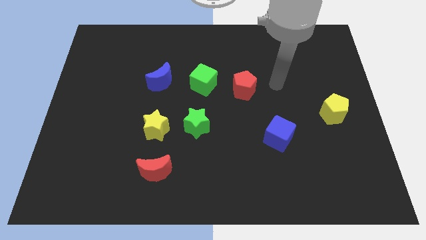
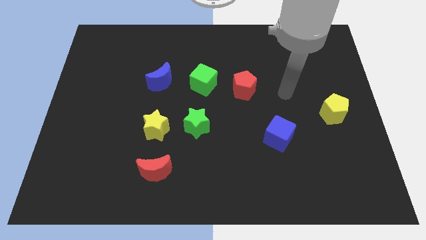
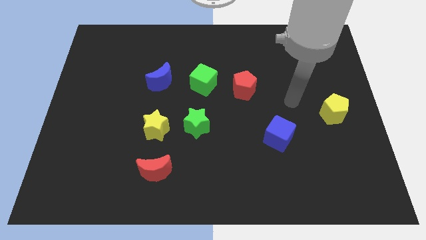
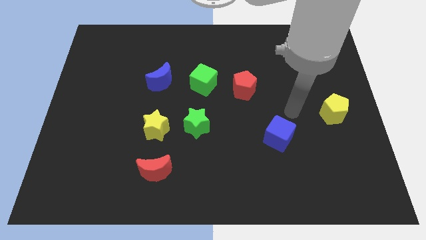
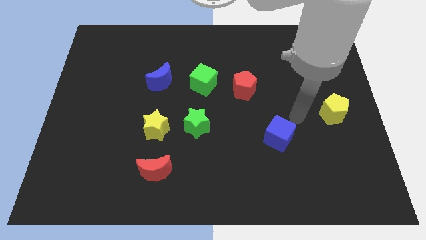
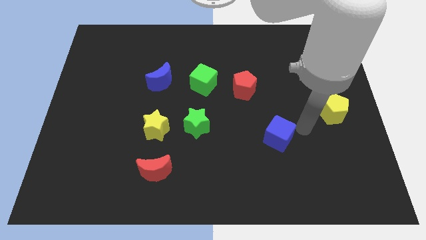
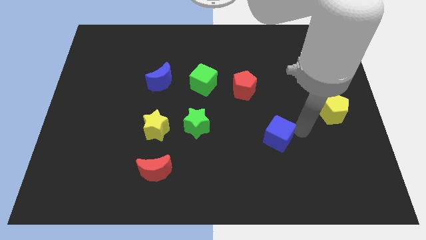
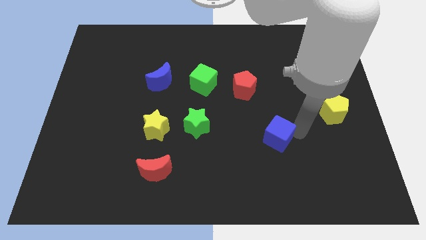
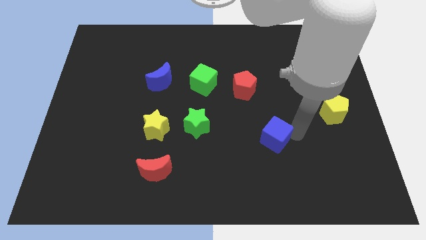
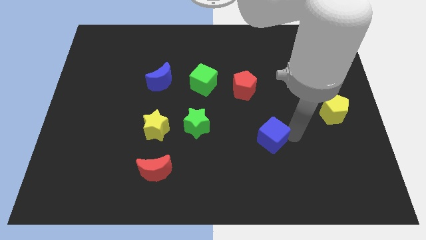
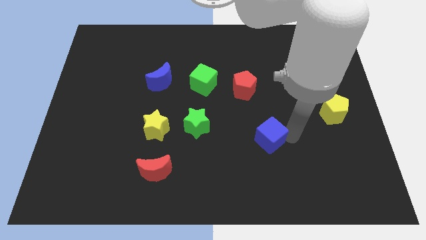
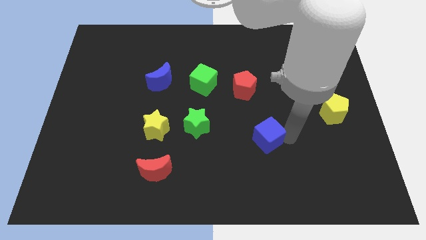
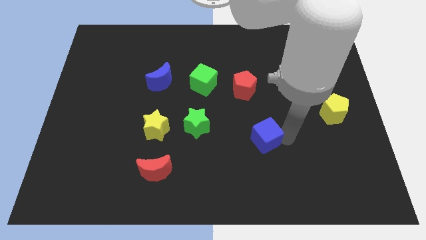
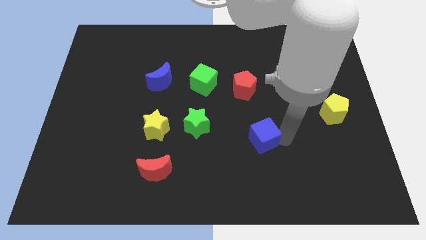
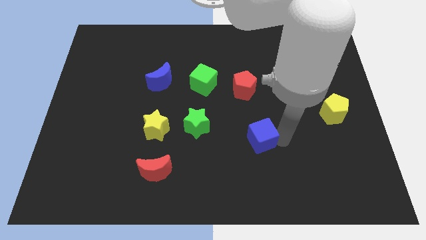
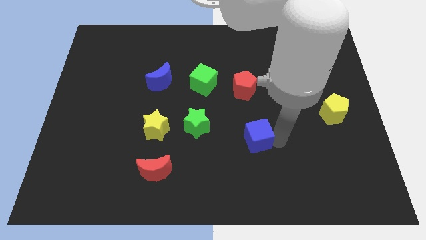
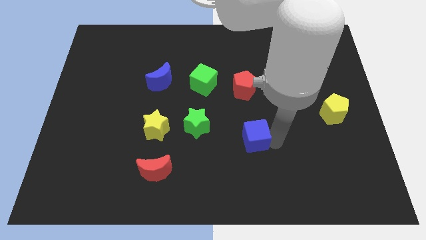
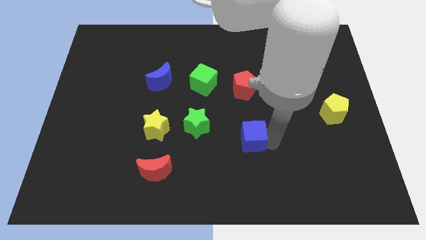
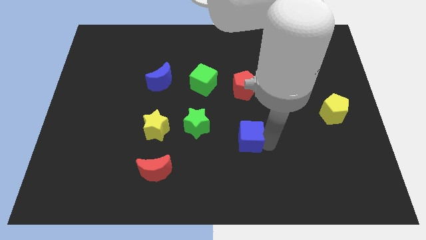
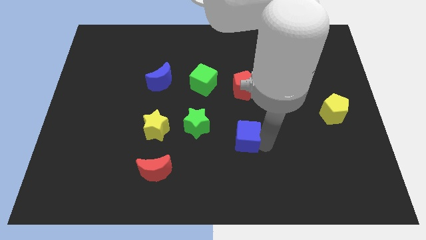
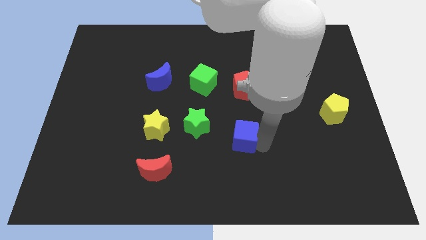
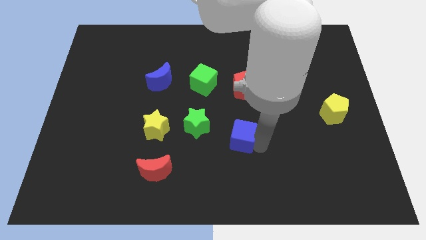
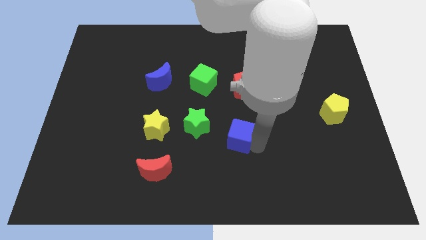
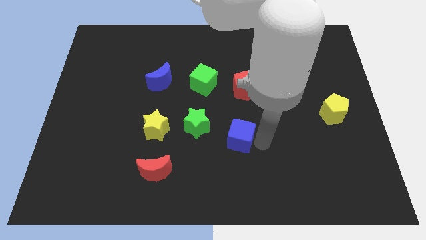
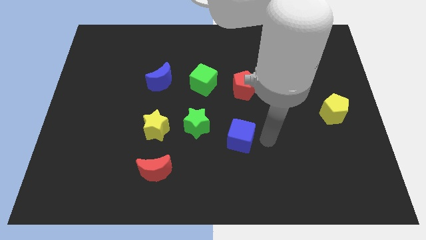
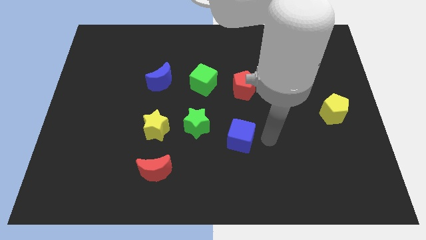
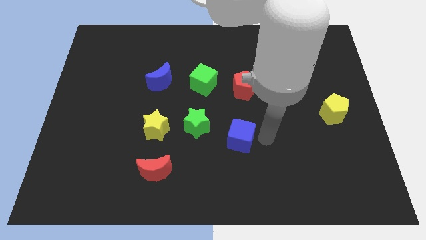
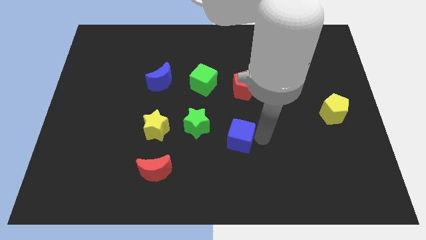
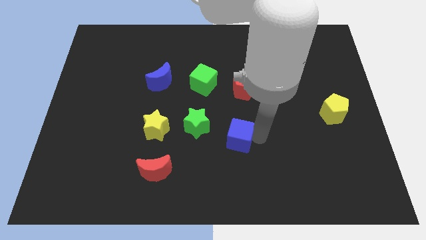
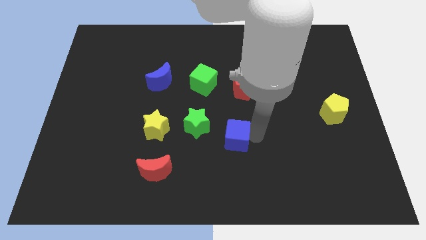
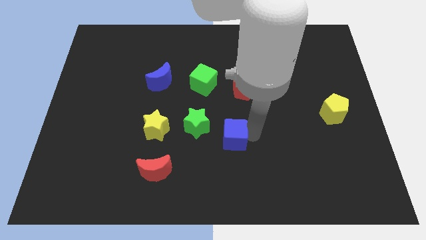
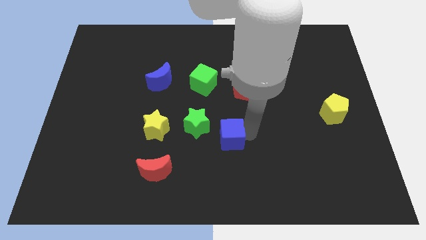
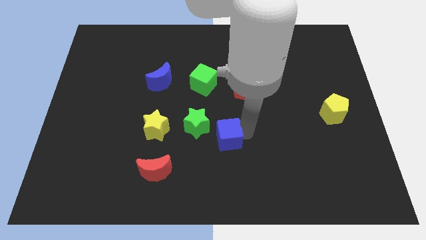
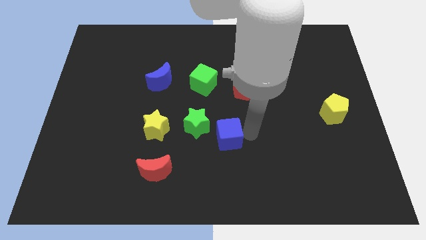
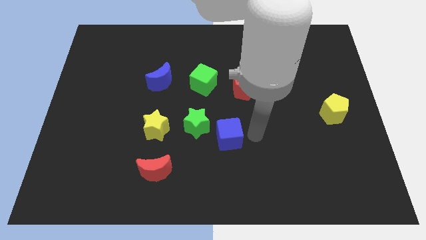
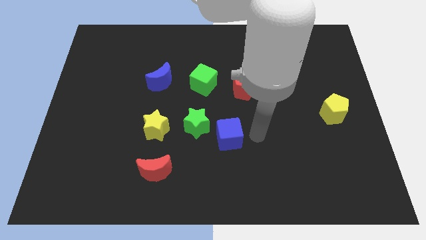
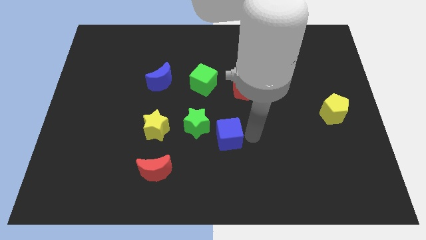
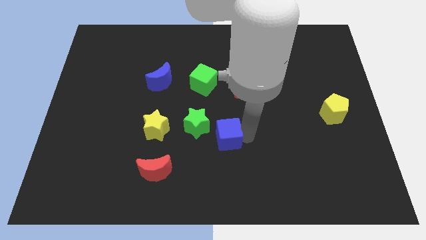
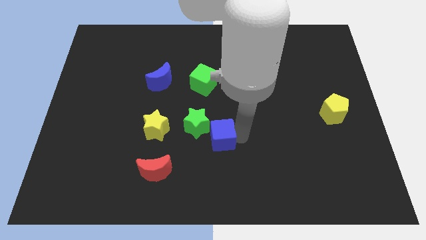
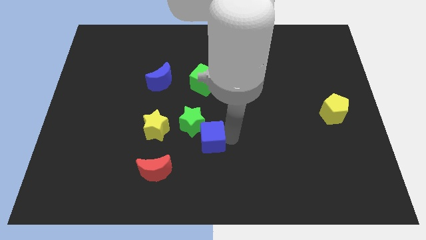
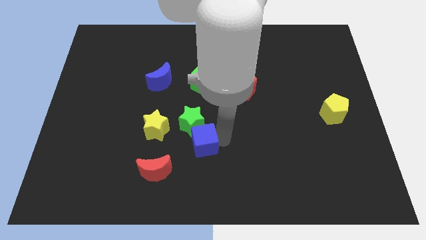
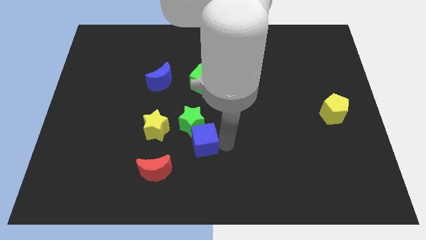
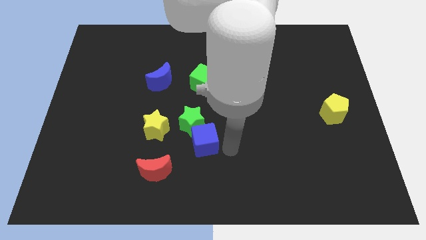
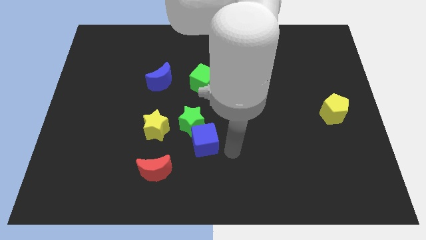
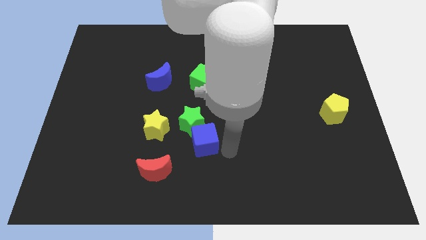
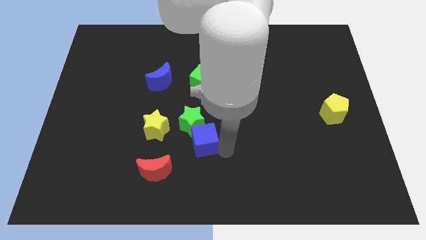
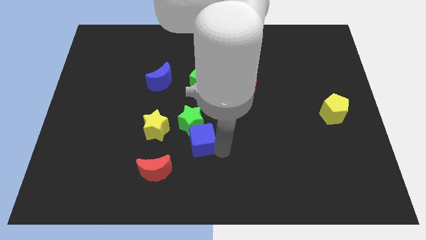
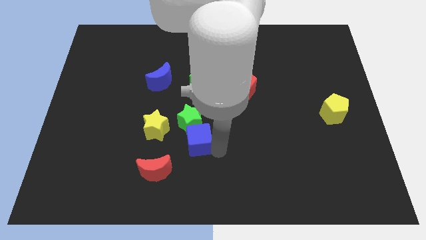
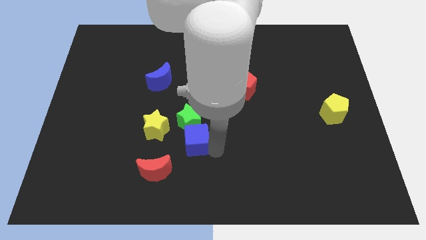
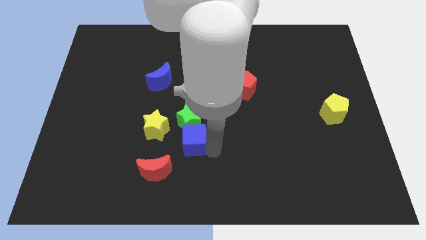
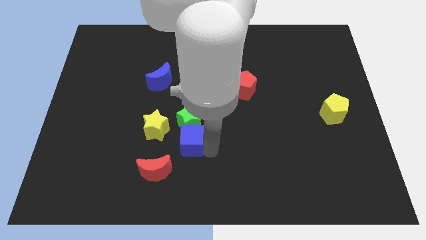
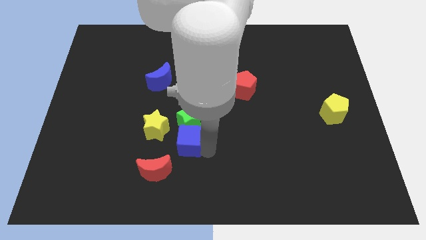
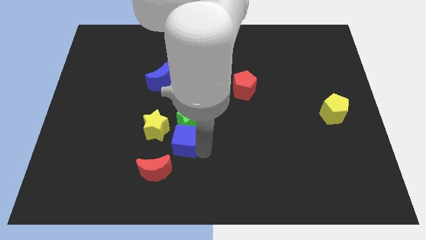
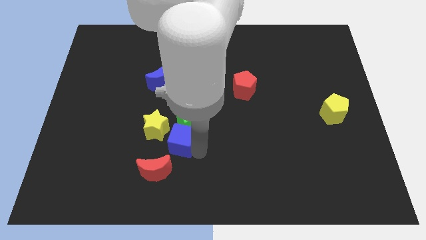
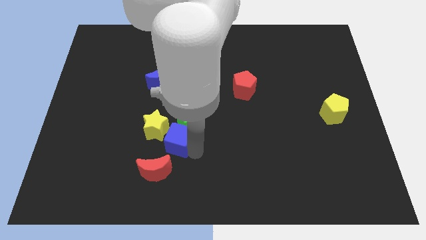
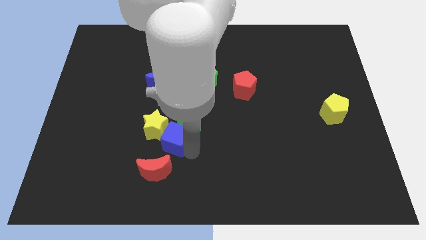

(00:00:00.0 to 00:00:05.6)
push the blue cube close to the yellow star

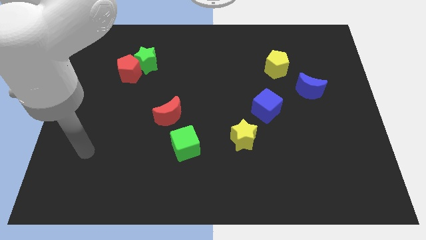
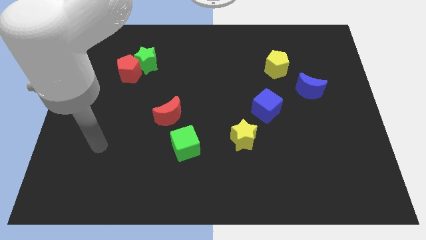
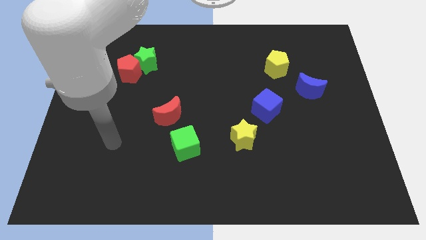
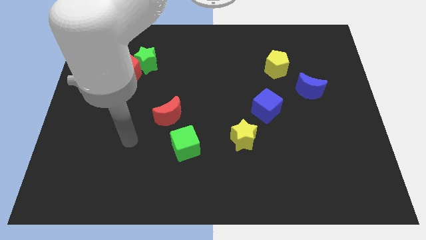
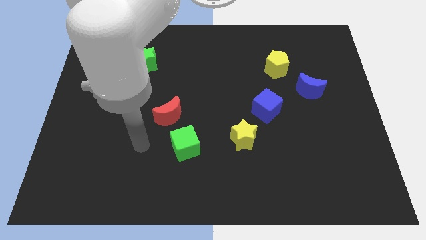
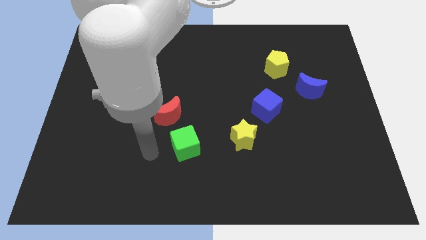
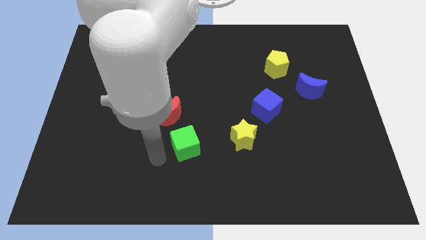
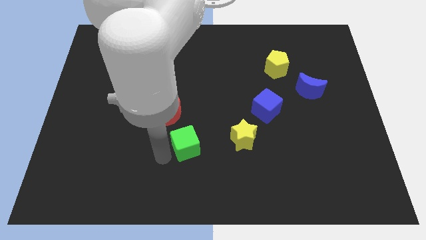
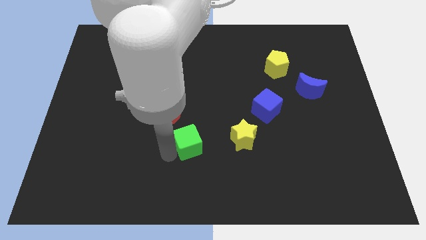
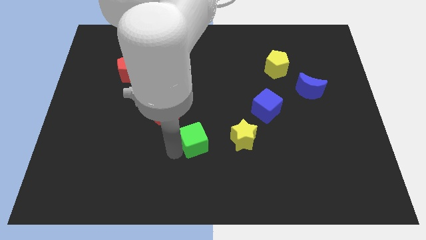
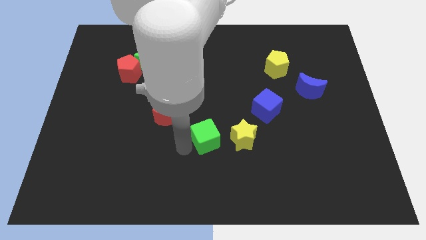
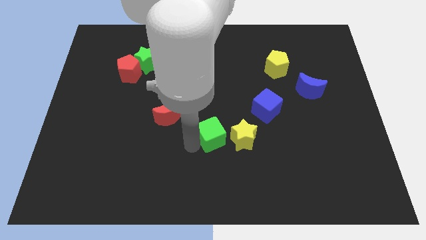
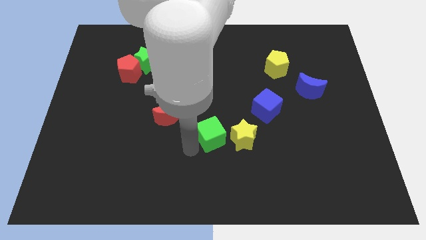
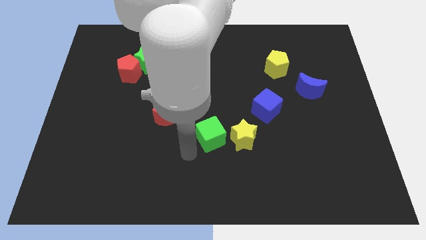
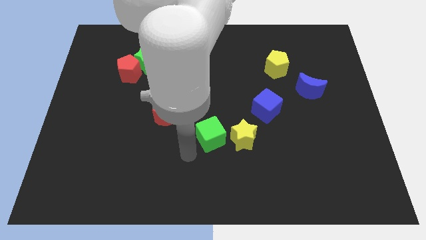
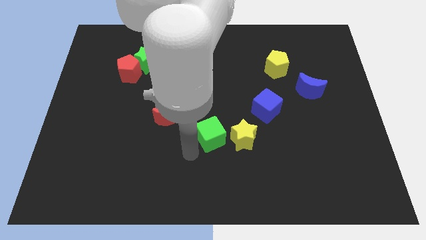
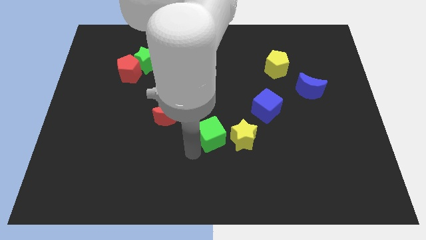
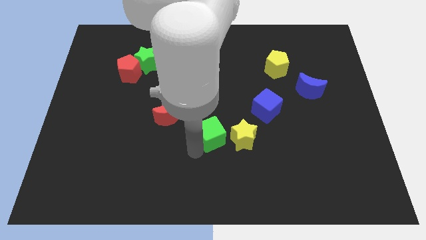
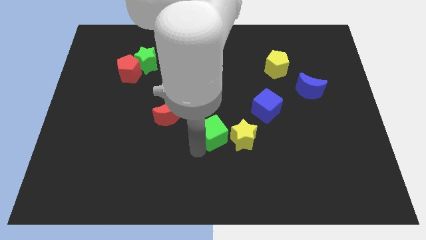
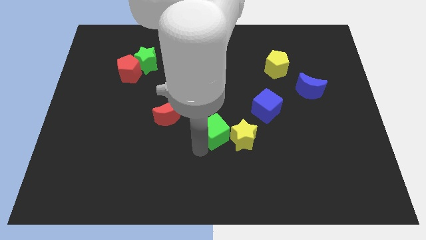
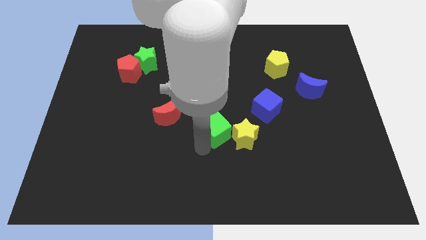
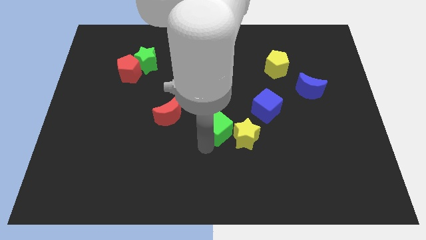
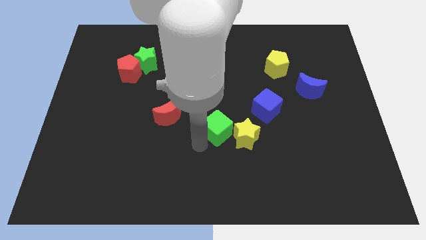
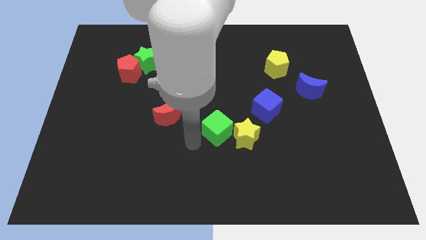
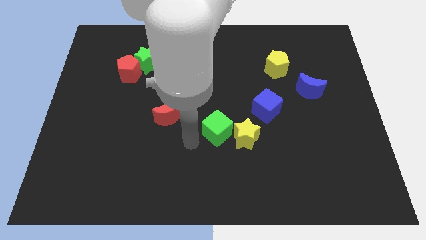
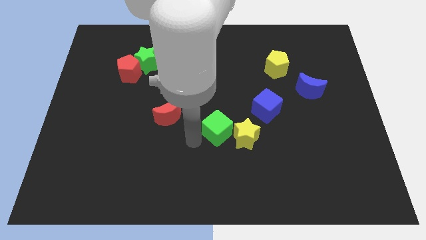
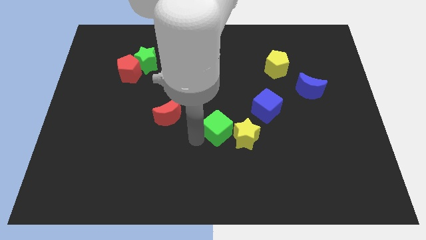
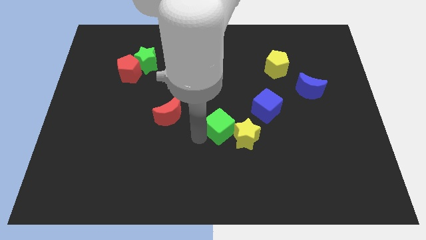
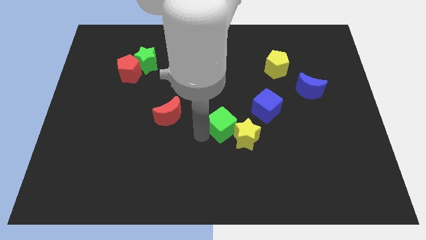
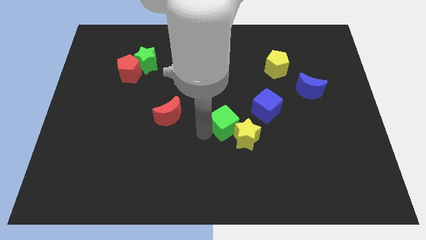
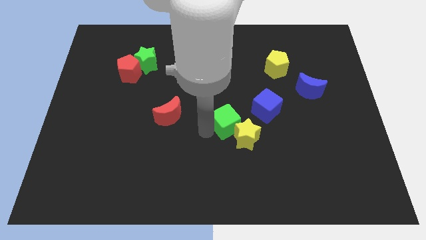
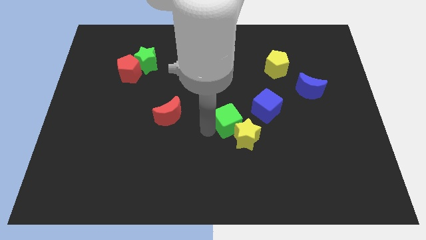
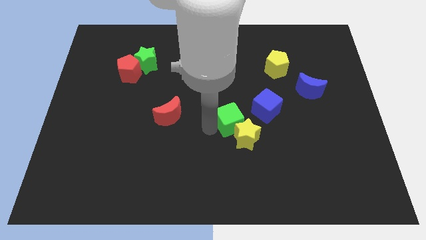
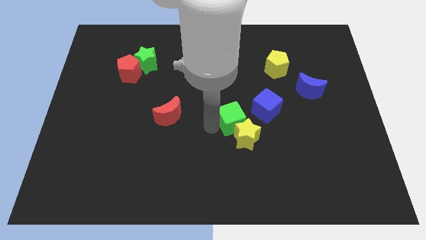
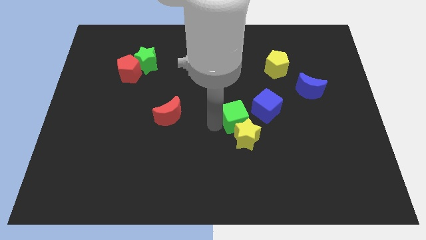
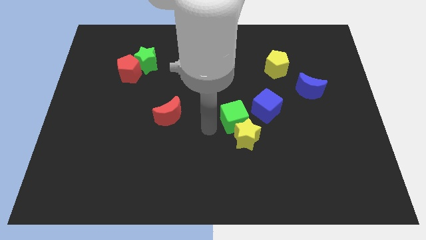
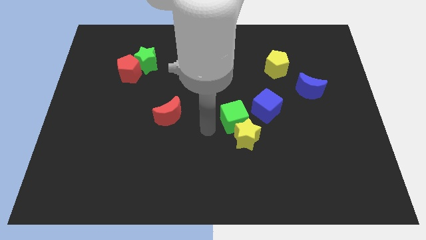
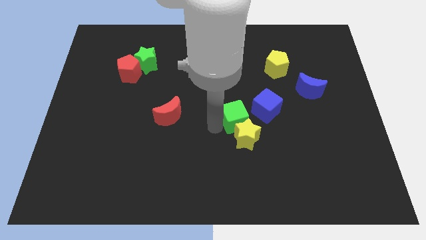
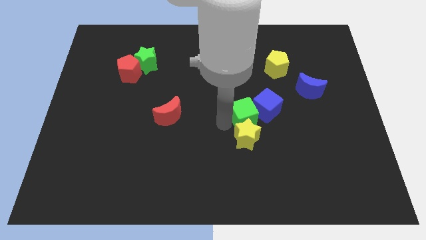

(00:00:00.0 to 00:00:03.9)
move the green cube to the blue cube
